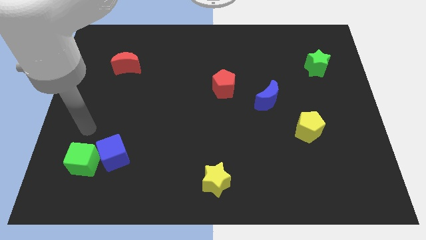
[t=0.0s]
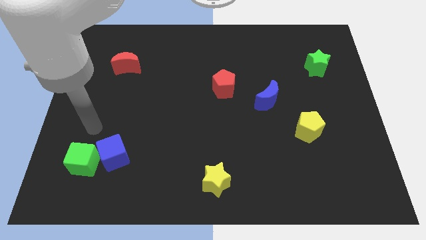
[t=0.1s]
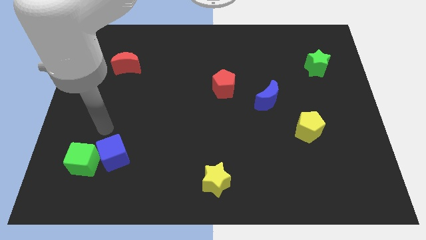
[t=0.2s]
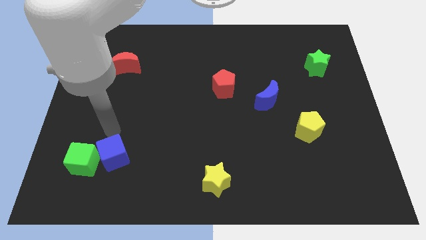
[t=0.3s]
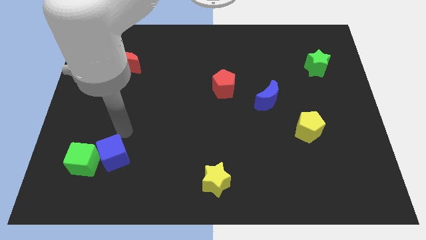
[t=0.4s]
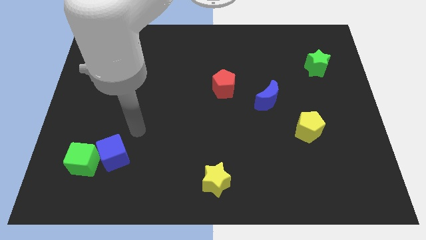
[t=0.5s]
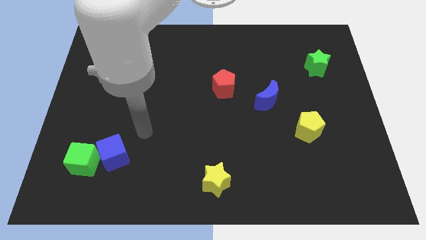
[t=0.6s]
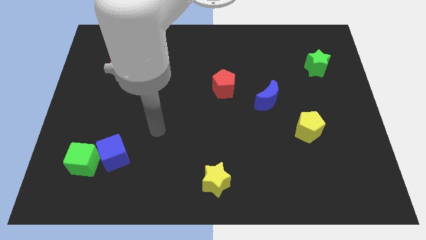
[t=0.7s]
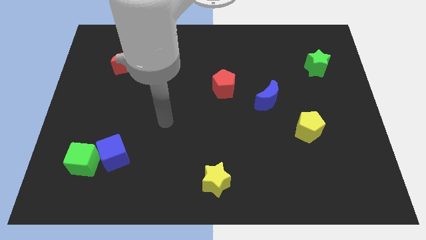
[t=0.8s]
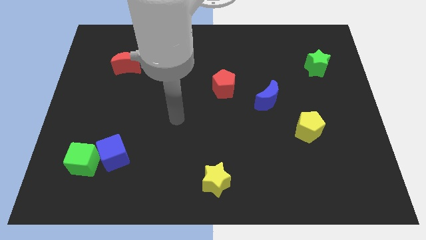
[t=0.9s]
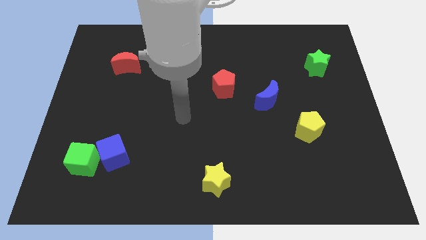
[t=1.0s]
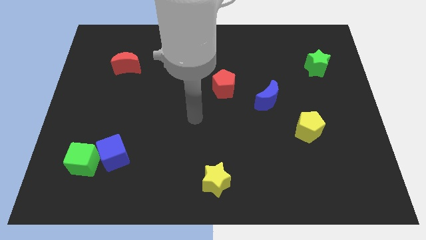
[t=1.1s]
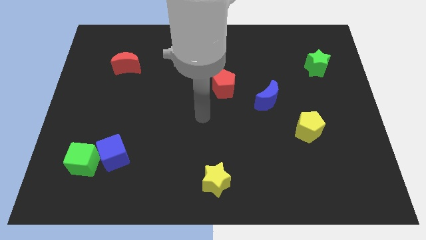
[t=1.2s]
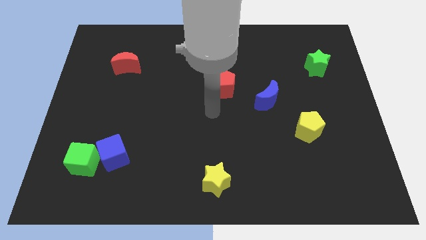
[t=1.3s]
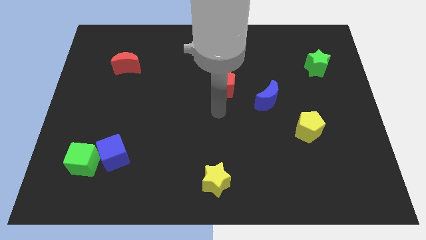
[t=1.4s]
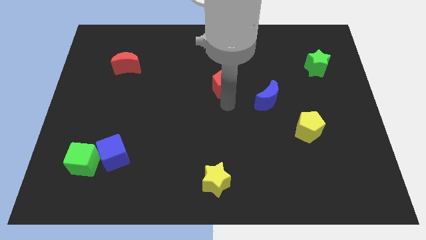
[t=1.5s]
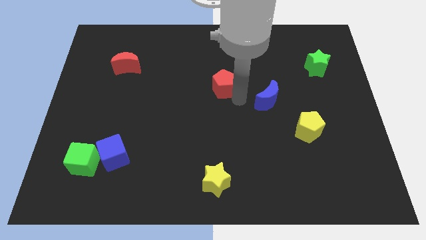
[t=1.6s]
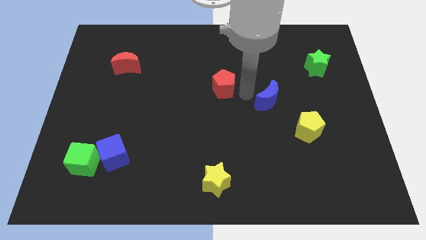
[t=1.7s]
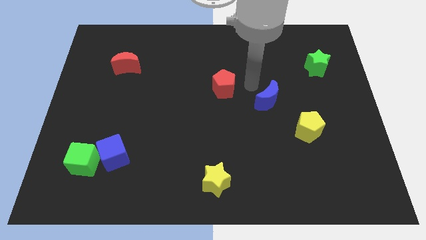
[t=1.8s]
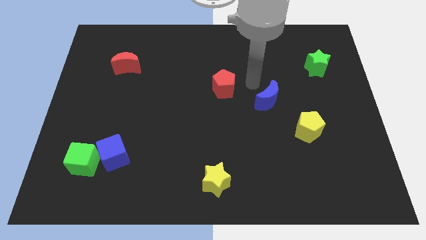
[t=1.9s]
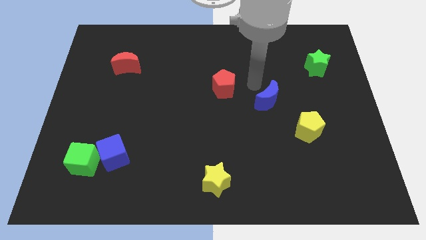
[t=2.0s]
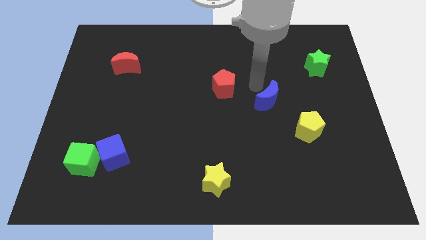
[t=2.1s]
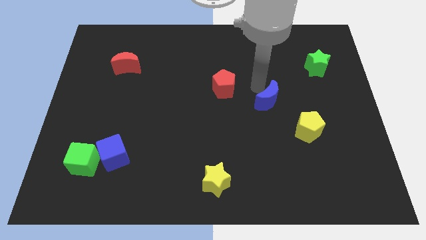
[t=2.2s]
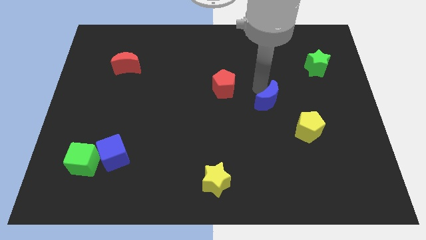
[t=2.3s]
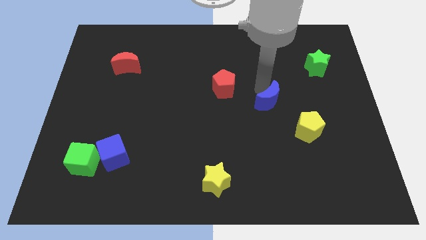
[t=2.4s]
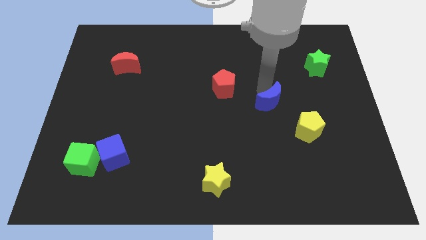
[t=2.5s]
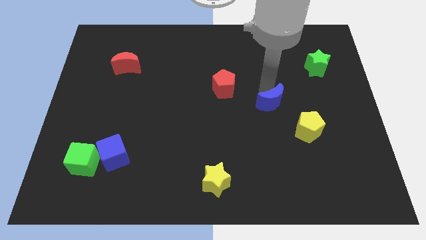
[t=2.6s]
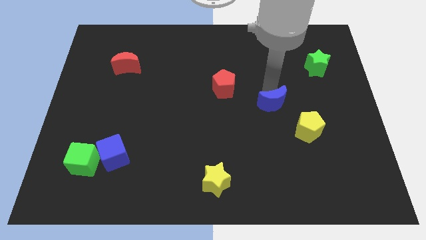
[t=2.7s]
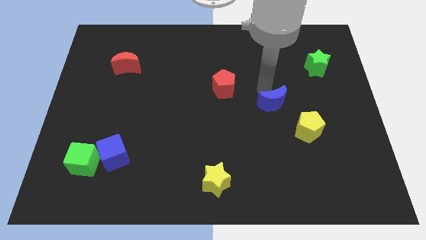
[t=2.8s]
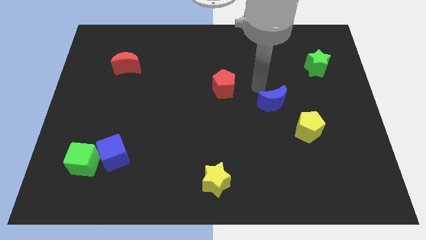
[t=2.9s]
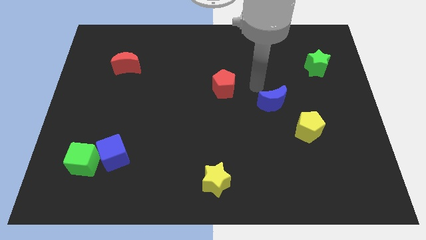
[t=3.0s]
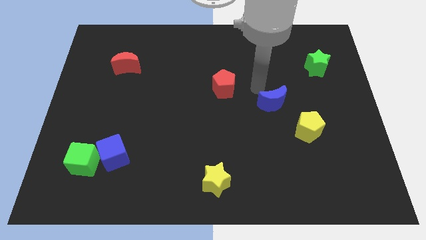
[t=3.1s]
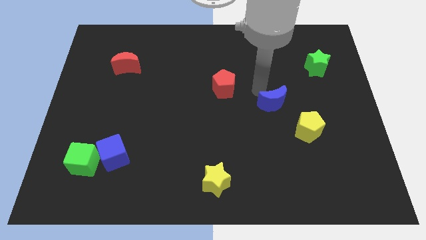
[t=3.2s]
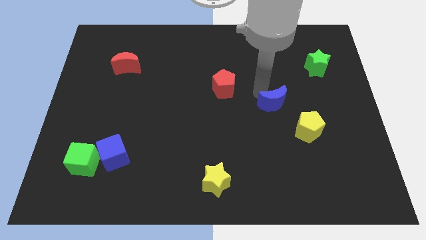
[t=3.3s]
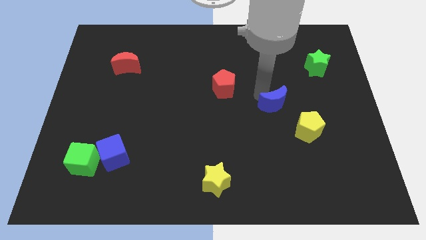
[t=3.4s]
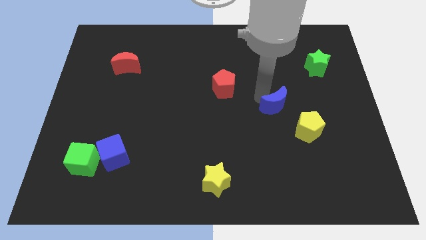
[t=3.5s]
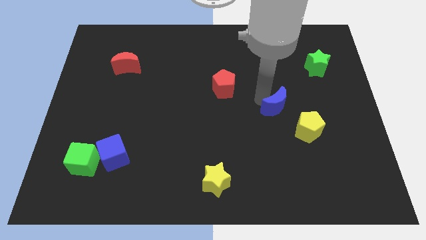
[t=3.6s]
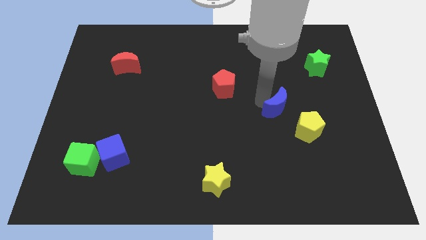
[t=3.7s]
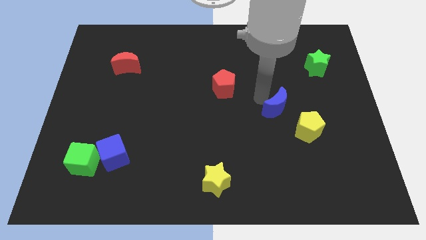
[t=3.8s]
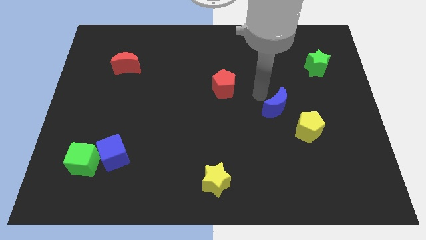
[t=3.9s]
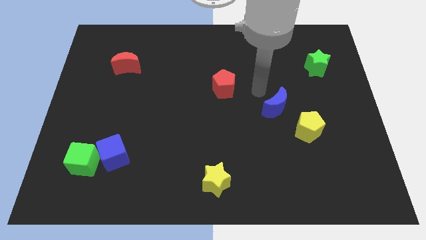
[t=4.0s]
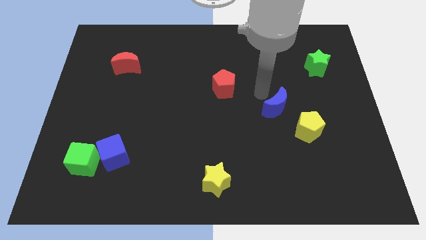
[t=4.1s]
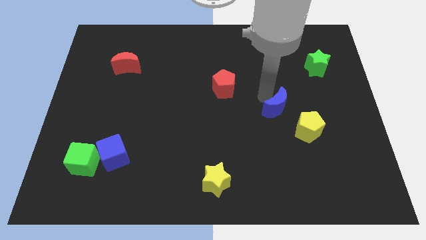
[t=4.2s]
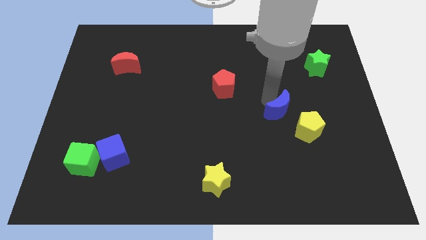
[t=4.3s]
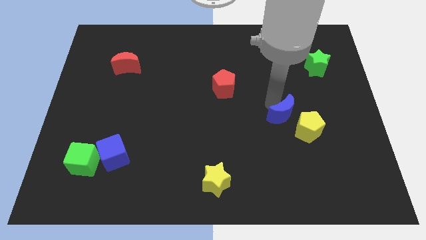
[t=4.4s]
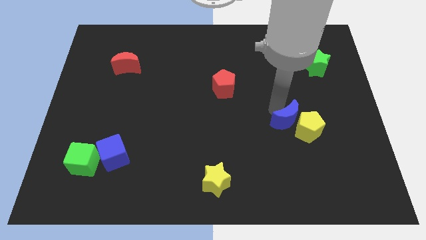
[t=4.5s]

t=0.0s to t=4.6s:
put the blue moon close to the yellow pentagon

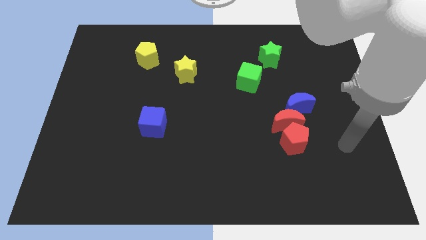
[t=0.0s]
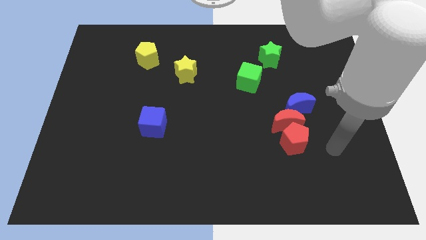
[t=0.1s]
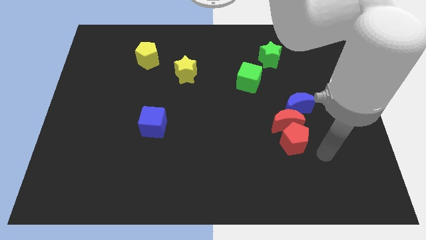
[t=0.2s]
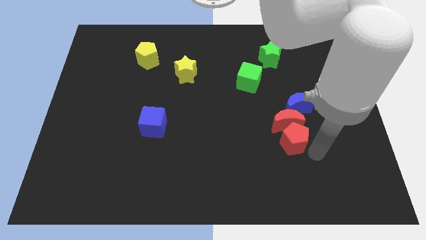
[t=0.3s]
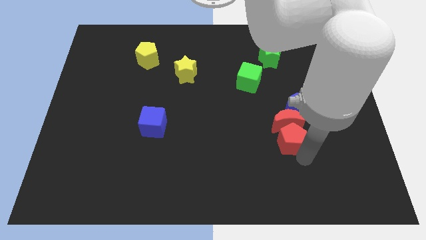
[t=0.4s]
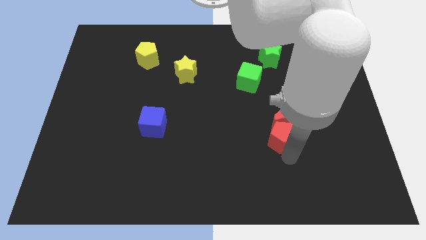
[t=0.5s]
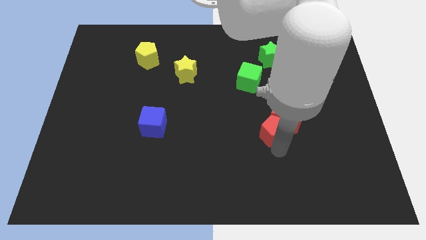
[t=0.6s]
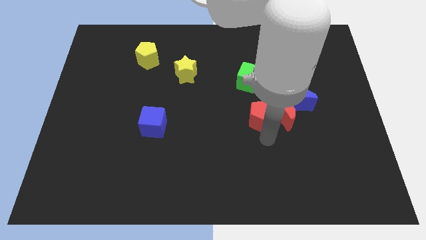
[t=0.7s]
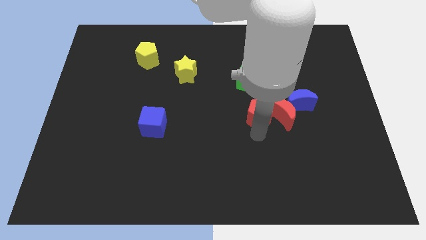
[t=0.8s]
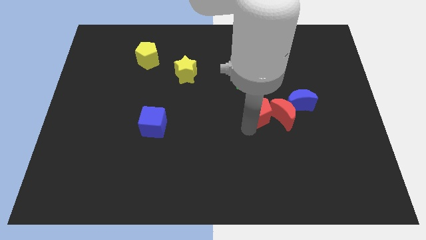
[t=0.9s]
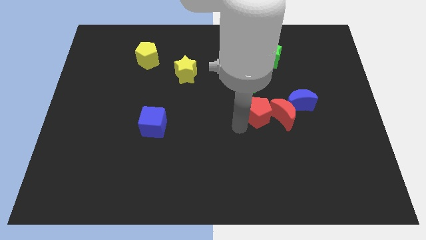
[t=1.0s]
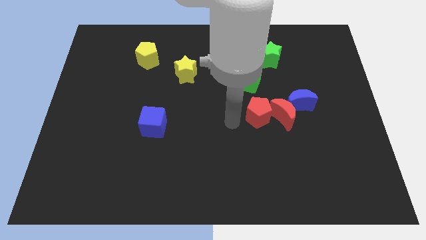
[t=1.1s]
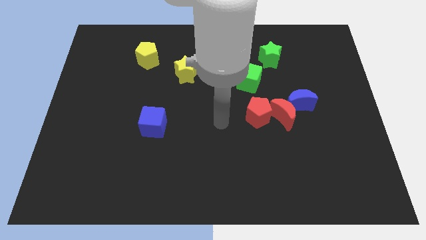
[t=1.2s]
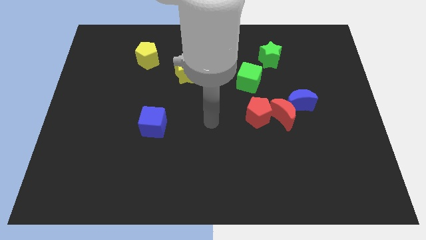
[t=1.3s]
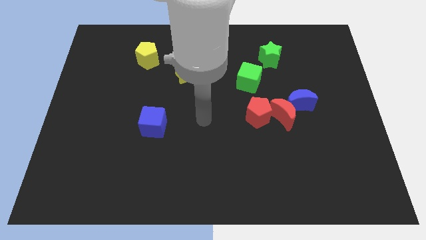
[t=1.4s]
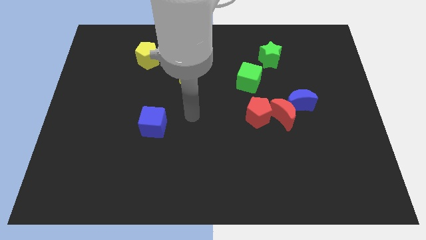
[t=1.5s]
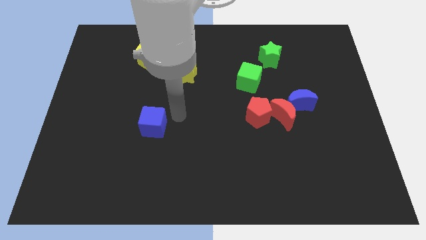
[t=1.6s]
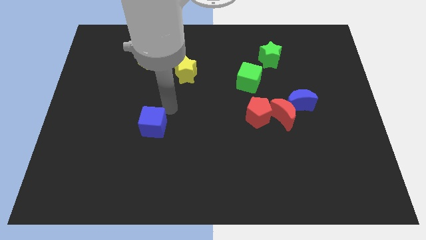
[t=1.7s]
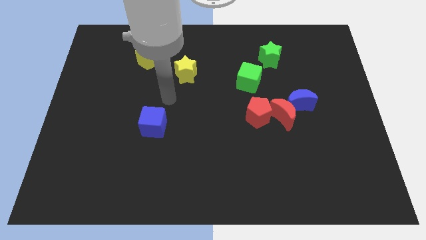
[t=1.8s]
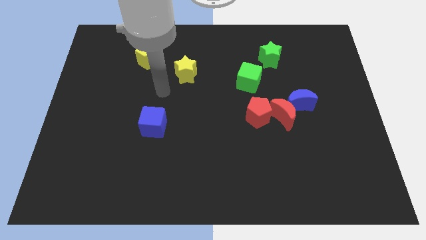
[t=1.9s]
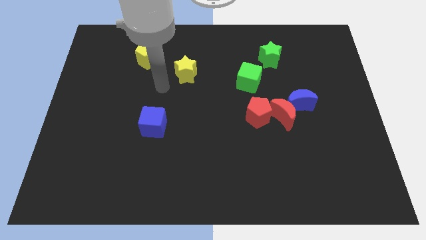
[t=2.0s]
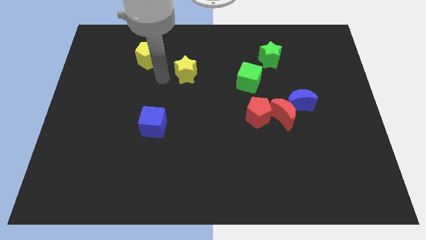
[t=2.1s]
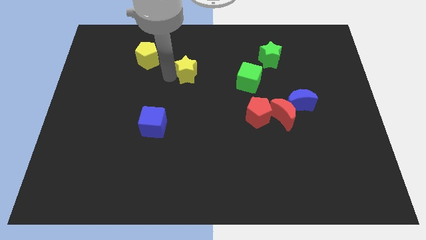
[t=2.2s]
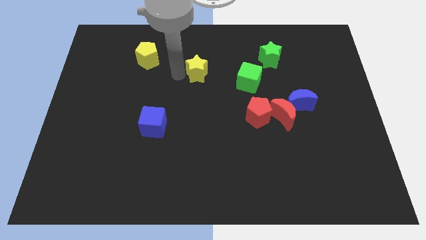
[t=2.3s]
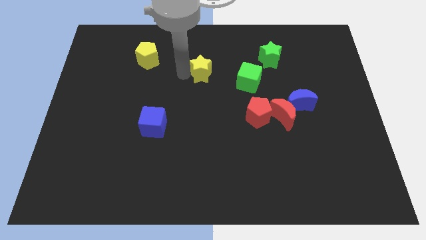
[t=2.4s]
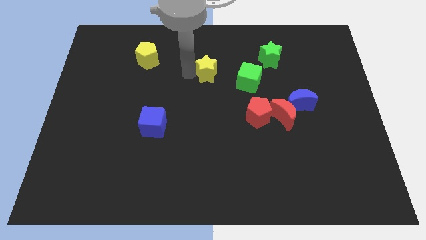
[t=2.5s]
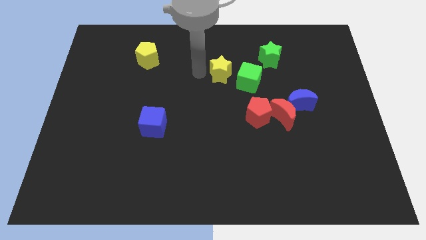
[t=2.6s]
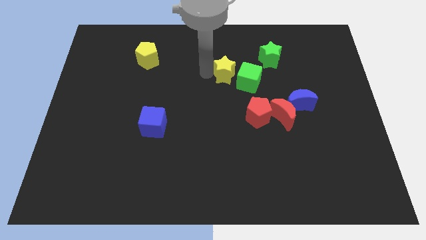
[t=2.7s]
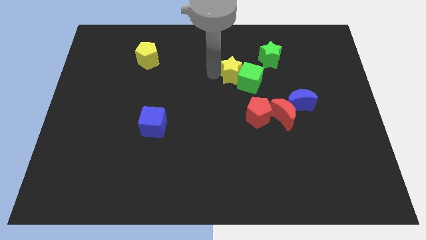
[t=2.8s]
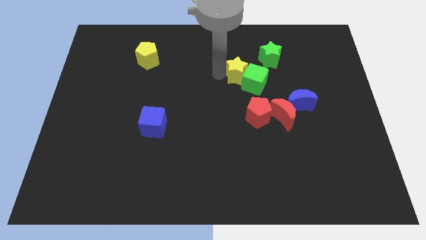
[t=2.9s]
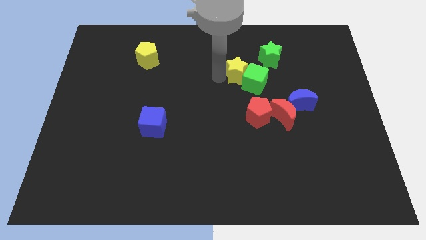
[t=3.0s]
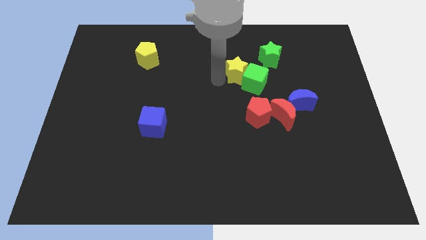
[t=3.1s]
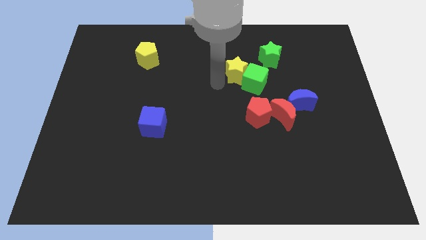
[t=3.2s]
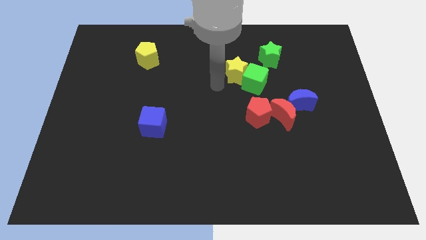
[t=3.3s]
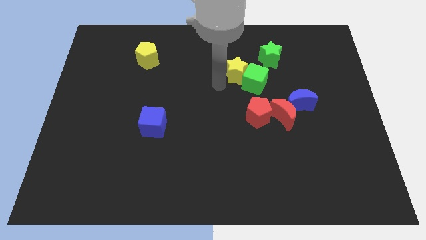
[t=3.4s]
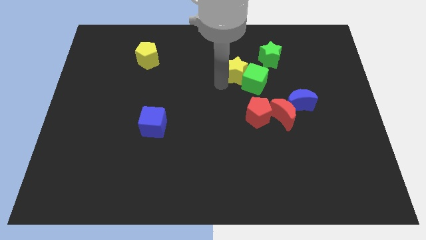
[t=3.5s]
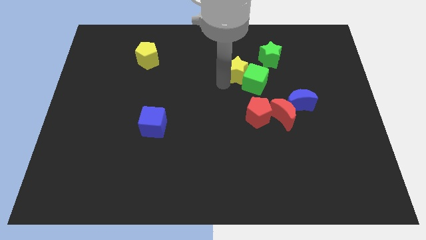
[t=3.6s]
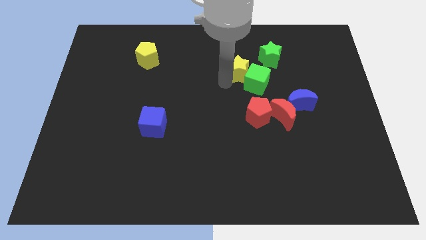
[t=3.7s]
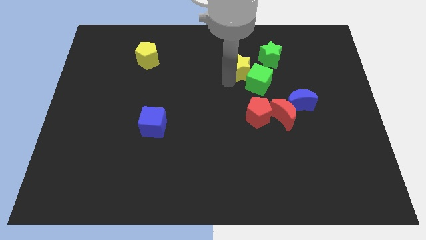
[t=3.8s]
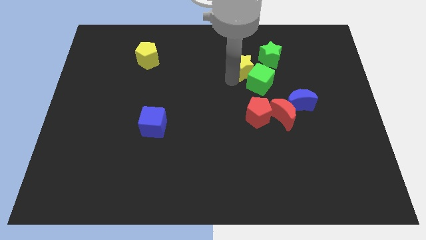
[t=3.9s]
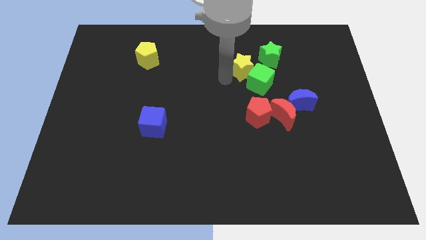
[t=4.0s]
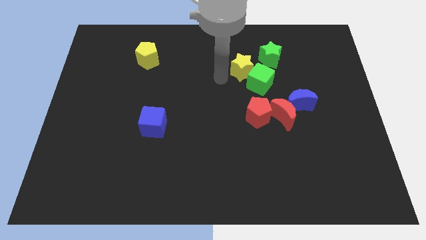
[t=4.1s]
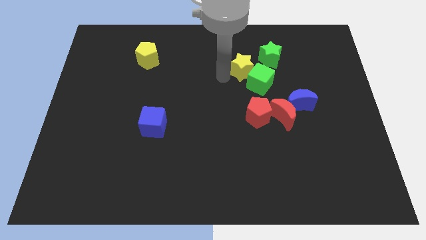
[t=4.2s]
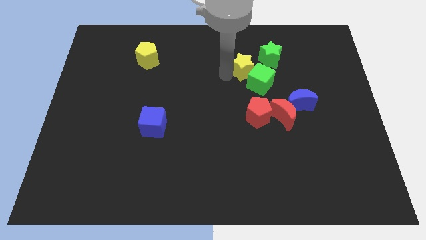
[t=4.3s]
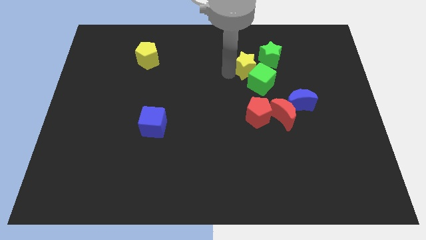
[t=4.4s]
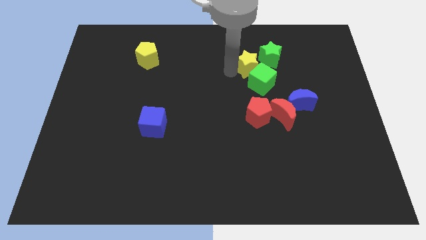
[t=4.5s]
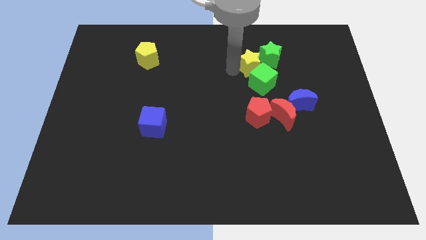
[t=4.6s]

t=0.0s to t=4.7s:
slide the yellow star towards the green star
